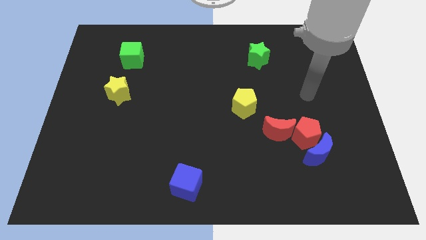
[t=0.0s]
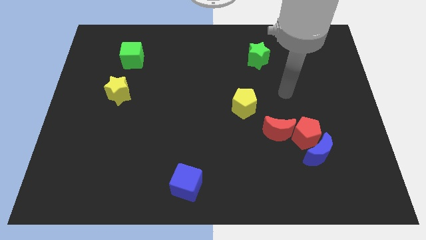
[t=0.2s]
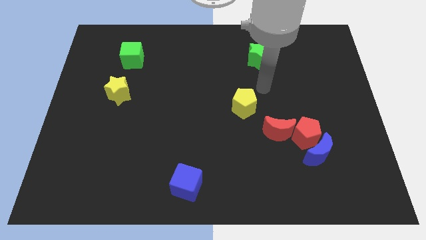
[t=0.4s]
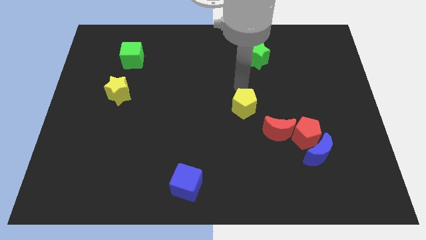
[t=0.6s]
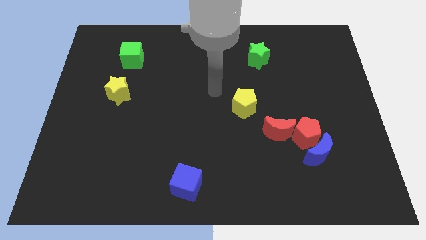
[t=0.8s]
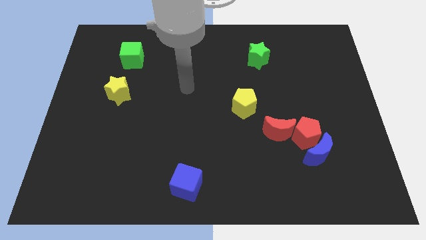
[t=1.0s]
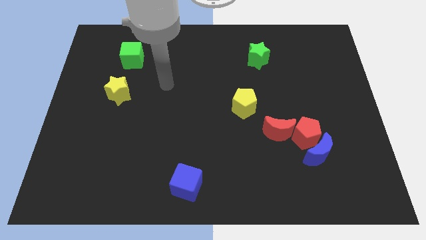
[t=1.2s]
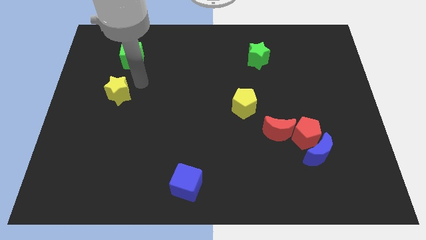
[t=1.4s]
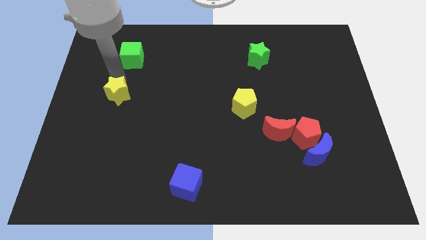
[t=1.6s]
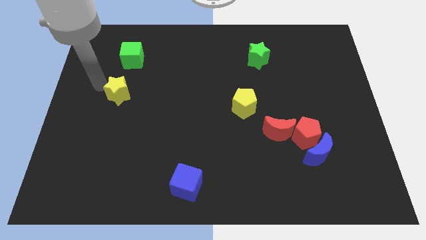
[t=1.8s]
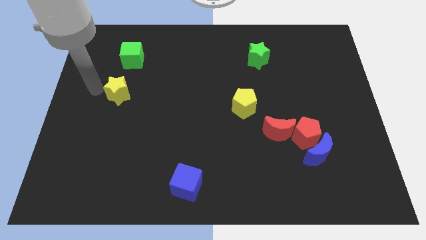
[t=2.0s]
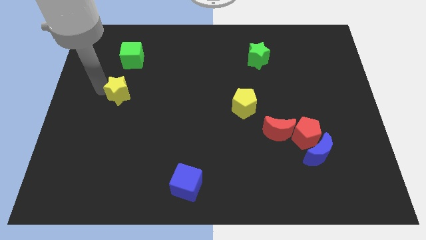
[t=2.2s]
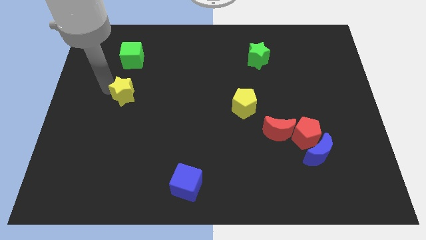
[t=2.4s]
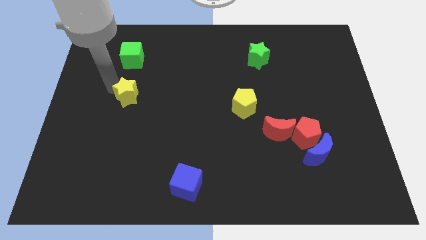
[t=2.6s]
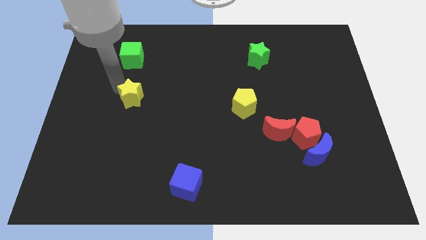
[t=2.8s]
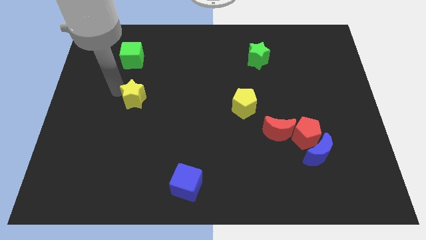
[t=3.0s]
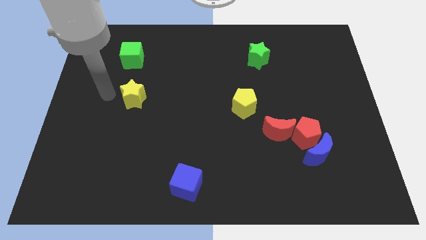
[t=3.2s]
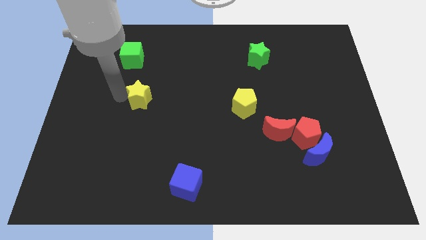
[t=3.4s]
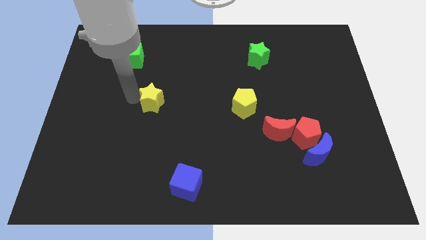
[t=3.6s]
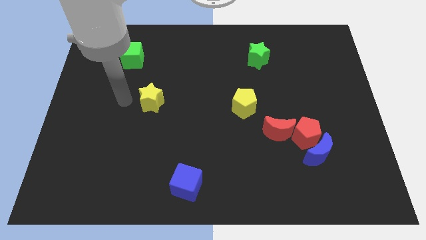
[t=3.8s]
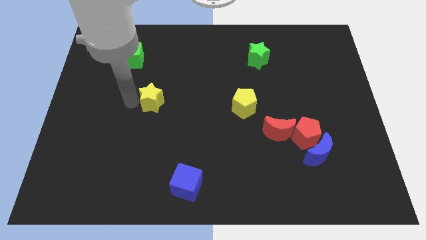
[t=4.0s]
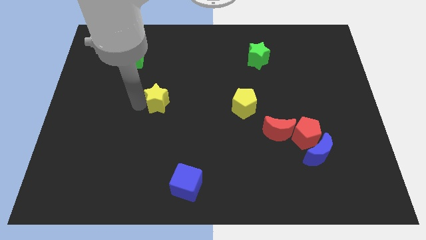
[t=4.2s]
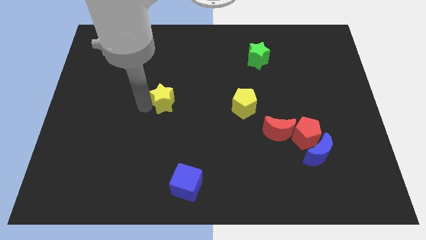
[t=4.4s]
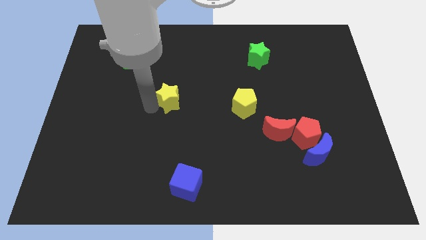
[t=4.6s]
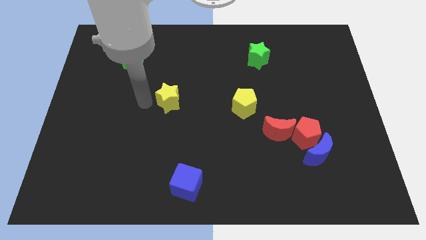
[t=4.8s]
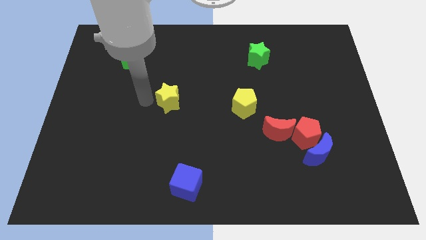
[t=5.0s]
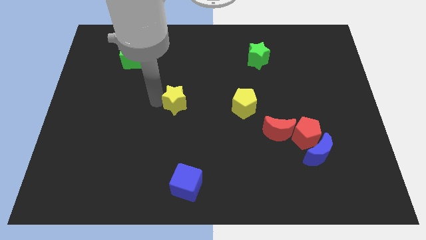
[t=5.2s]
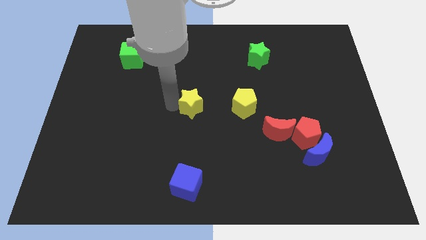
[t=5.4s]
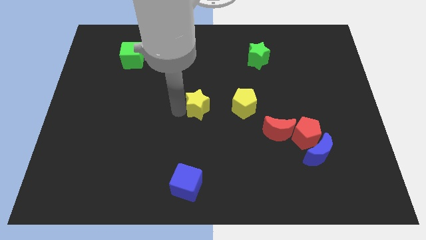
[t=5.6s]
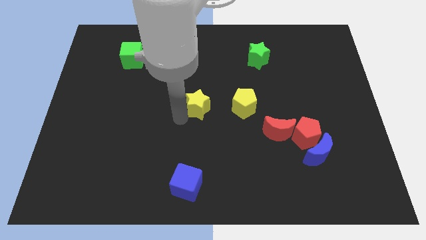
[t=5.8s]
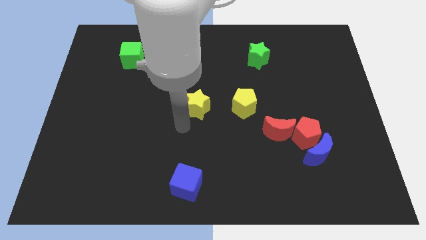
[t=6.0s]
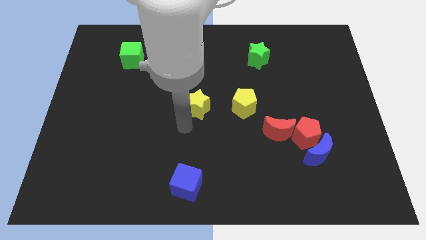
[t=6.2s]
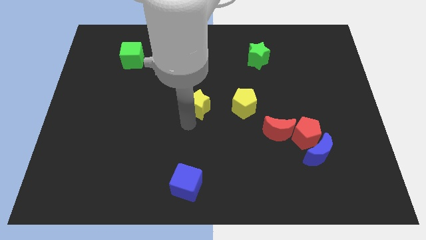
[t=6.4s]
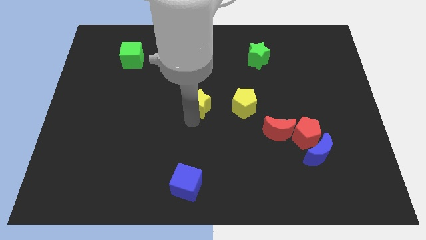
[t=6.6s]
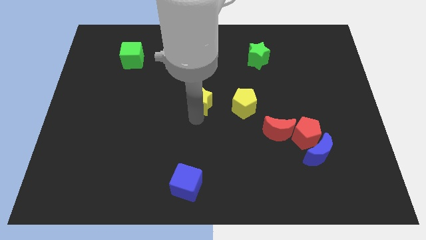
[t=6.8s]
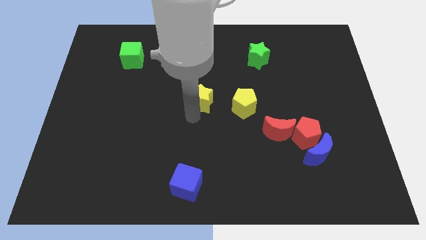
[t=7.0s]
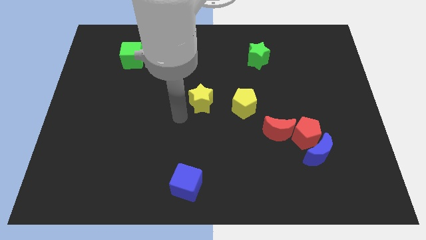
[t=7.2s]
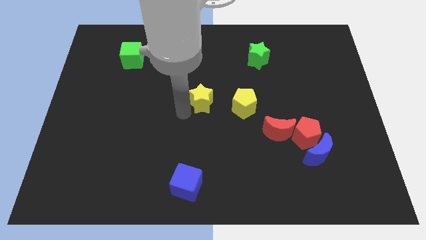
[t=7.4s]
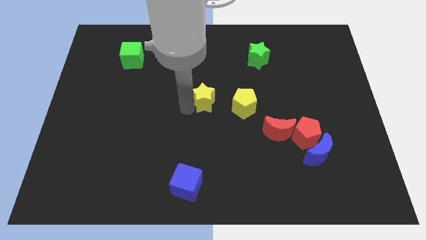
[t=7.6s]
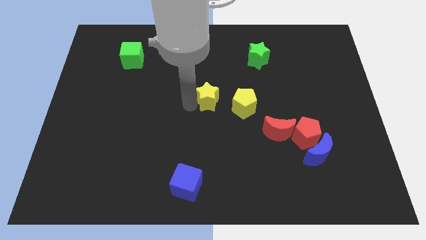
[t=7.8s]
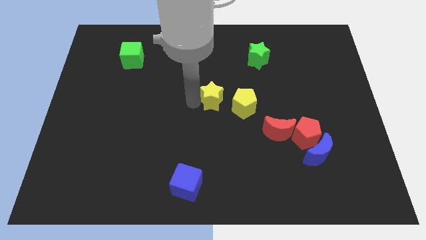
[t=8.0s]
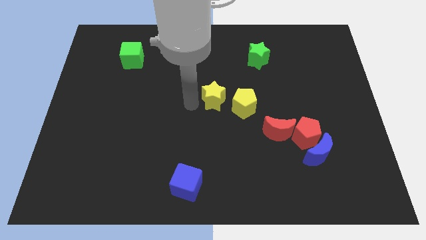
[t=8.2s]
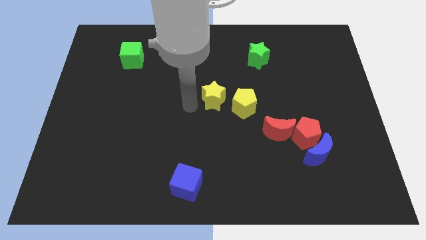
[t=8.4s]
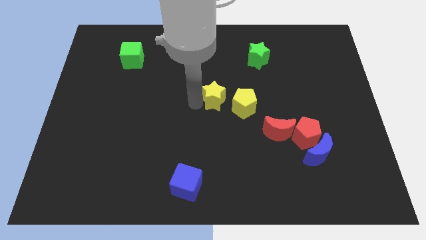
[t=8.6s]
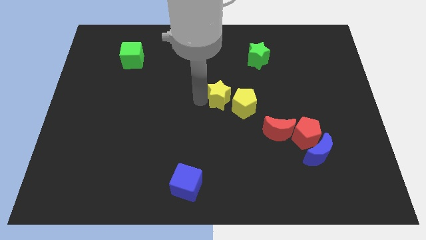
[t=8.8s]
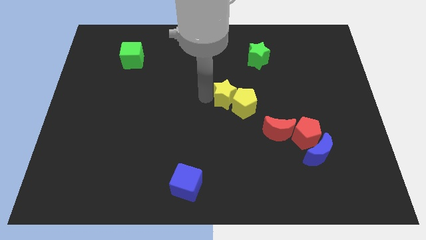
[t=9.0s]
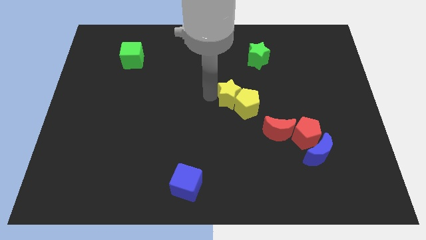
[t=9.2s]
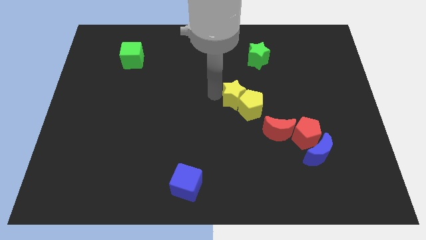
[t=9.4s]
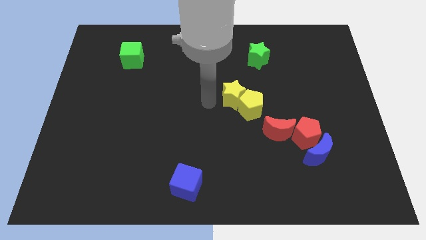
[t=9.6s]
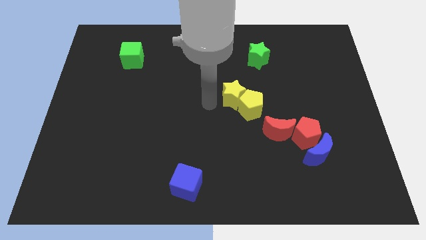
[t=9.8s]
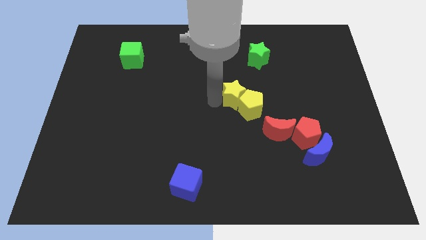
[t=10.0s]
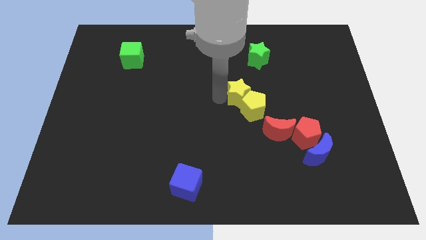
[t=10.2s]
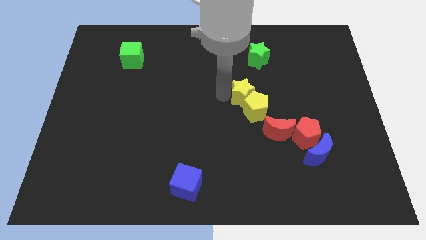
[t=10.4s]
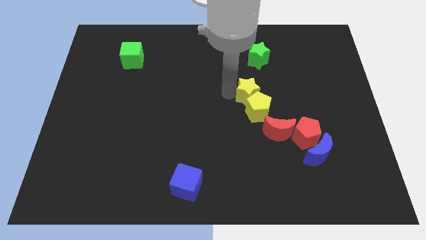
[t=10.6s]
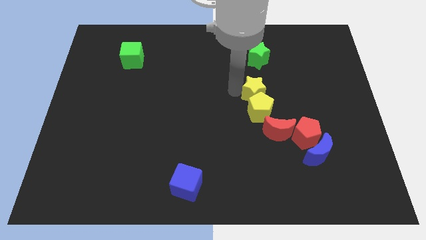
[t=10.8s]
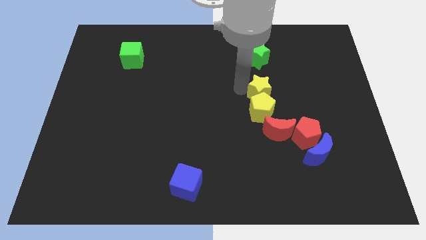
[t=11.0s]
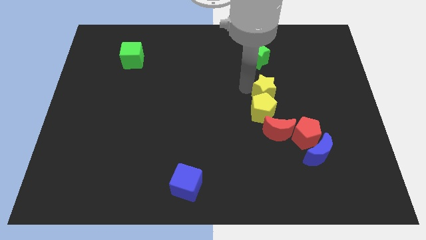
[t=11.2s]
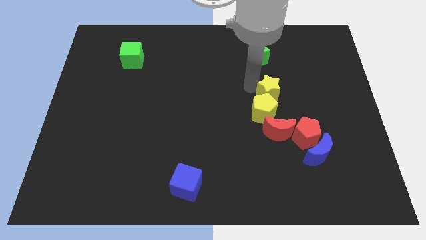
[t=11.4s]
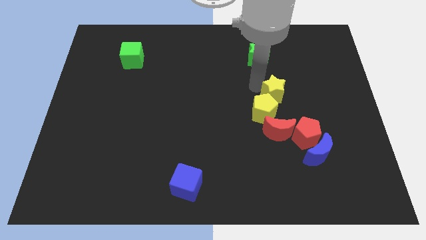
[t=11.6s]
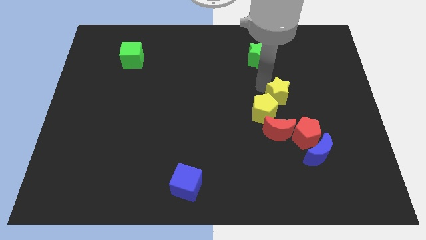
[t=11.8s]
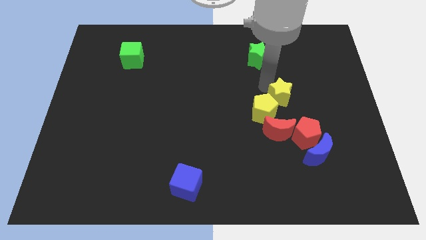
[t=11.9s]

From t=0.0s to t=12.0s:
move the yellow star above the red pentagon

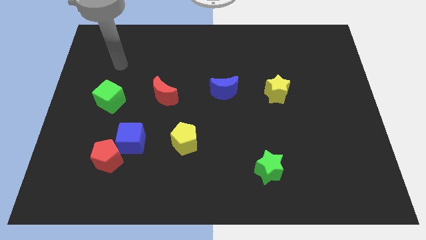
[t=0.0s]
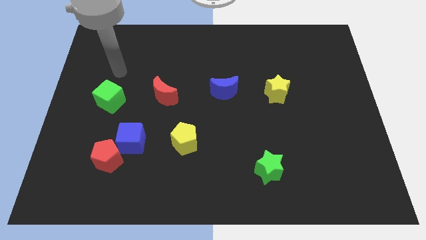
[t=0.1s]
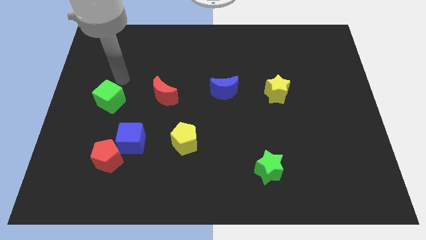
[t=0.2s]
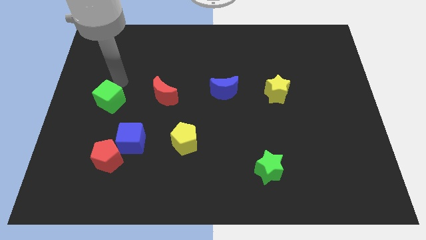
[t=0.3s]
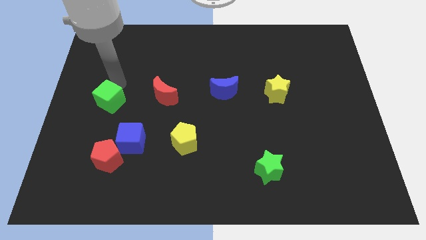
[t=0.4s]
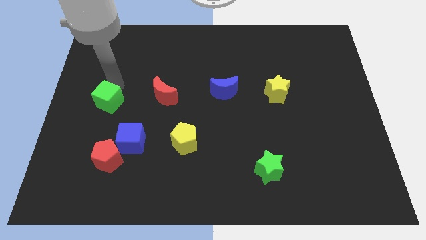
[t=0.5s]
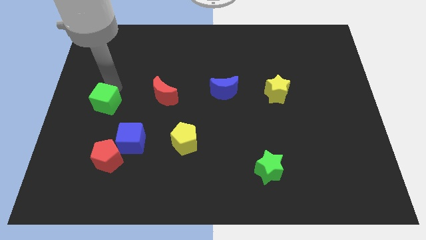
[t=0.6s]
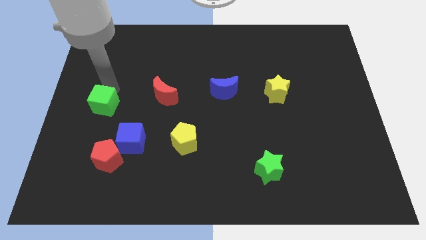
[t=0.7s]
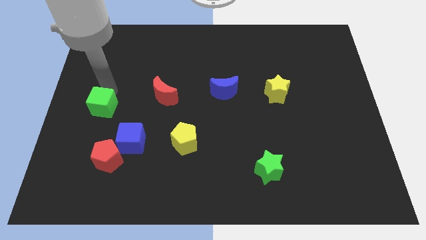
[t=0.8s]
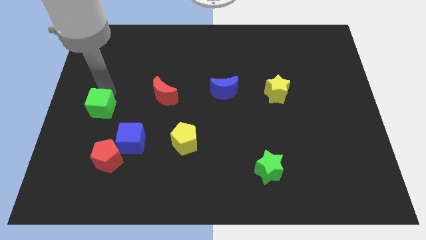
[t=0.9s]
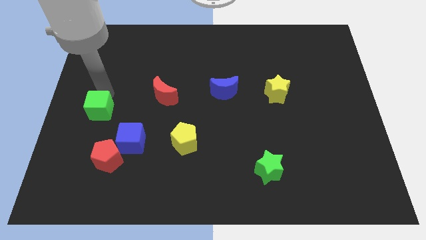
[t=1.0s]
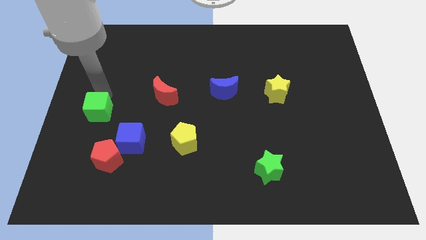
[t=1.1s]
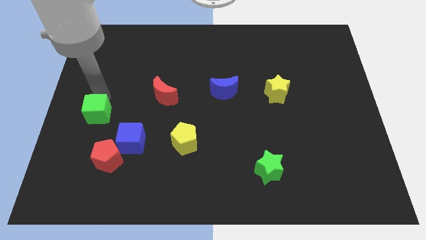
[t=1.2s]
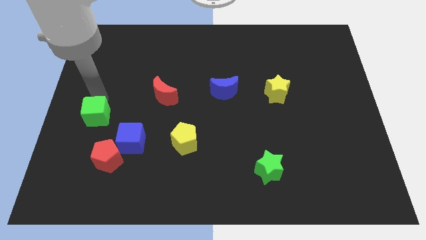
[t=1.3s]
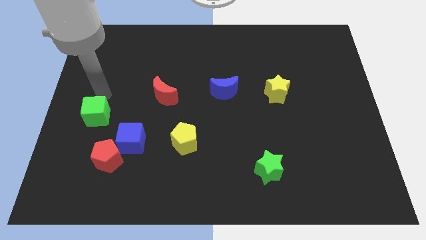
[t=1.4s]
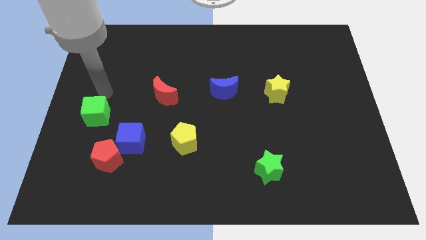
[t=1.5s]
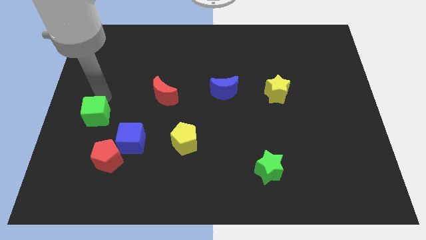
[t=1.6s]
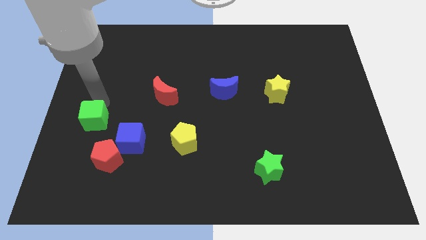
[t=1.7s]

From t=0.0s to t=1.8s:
slide the green cube to the top left side of the red pentagon
